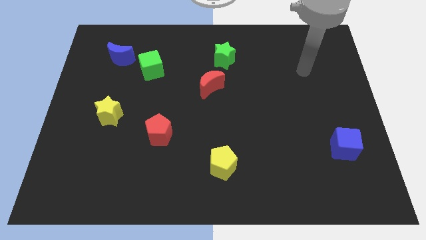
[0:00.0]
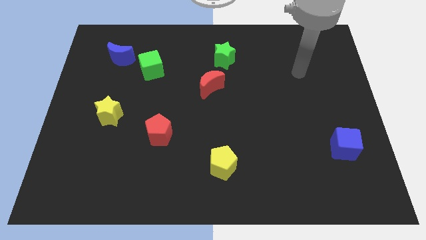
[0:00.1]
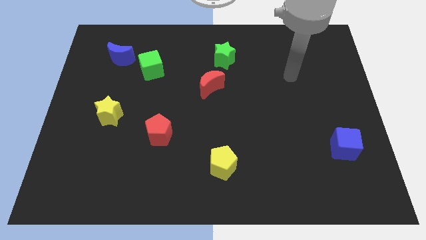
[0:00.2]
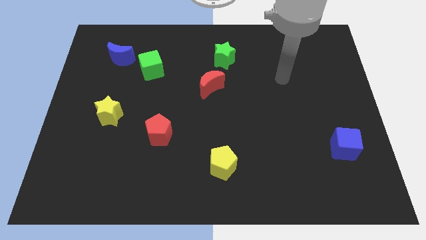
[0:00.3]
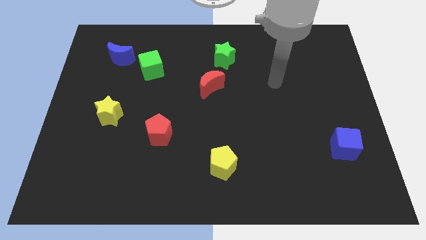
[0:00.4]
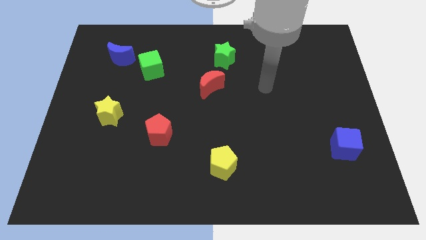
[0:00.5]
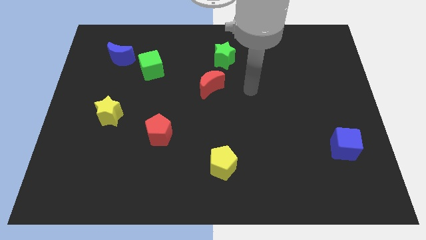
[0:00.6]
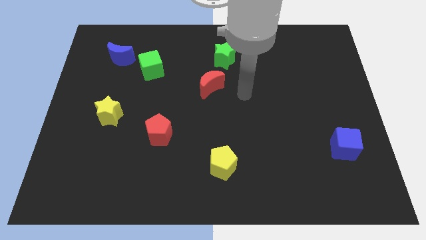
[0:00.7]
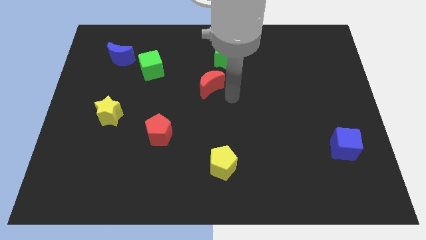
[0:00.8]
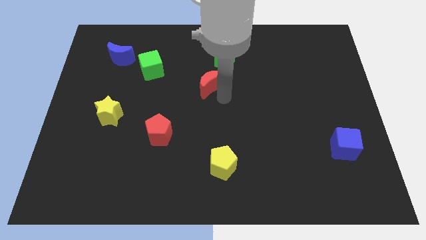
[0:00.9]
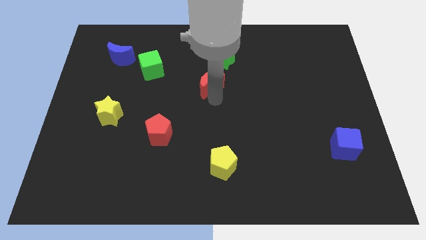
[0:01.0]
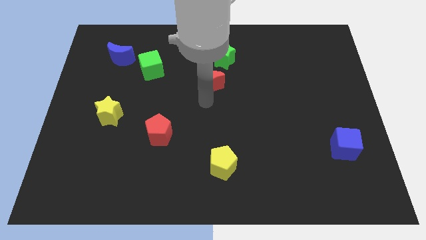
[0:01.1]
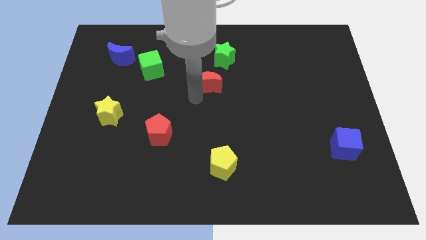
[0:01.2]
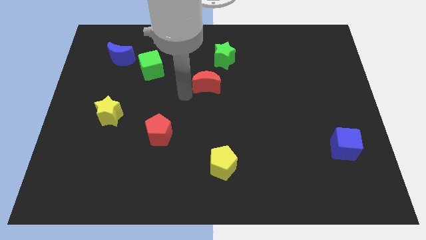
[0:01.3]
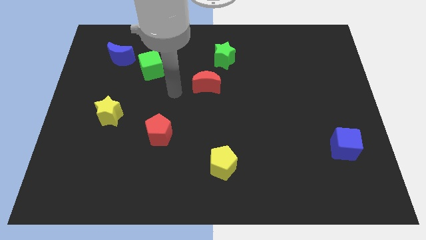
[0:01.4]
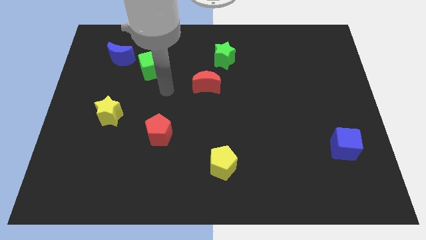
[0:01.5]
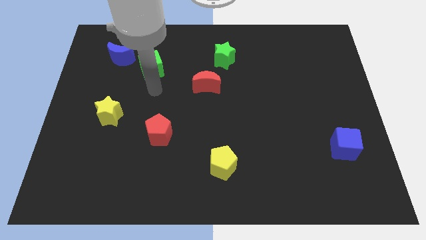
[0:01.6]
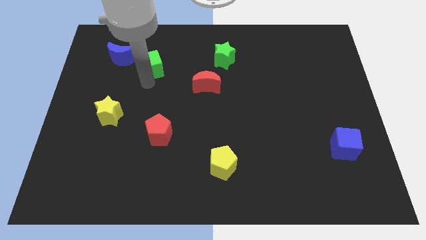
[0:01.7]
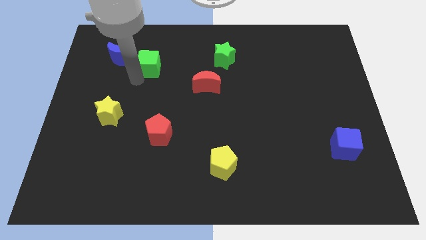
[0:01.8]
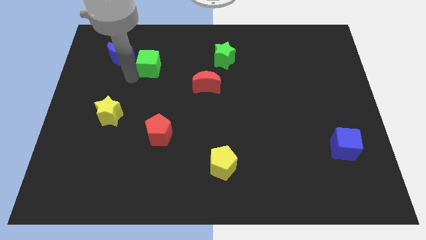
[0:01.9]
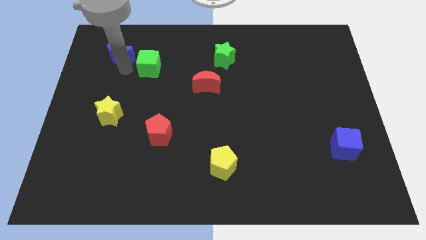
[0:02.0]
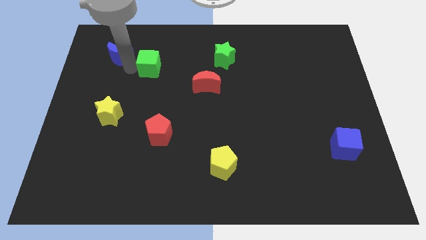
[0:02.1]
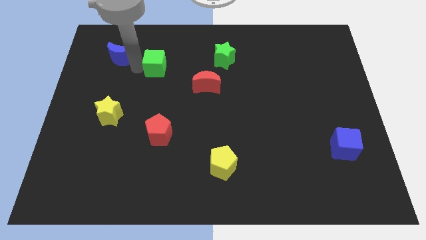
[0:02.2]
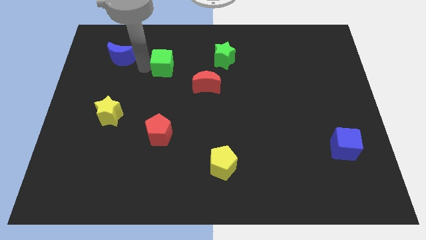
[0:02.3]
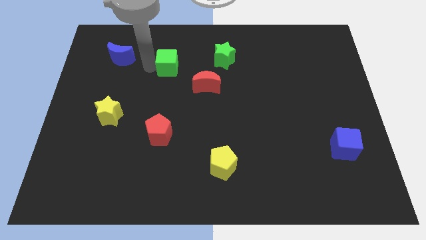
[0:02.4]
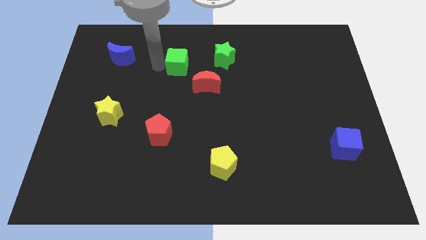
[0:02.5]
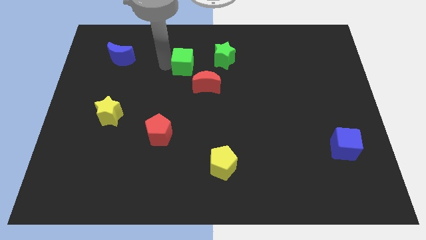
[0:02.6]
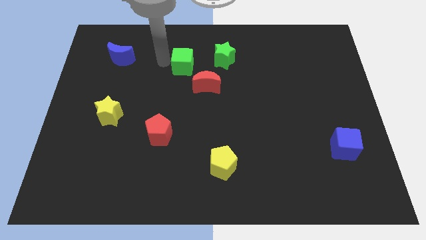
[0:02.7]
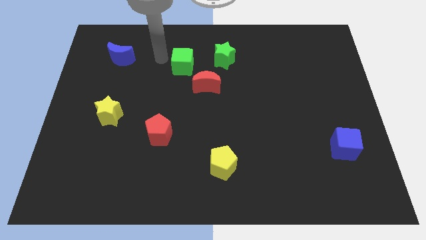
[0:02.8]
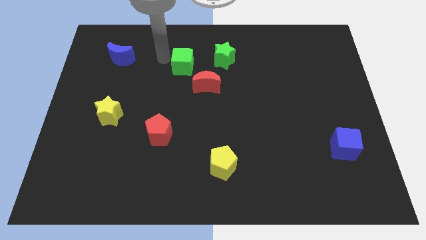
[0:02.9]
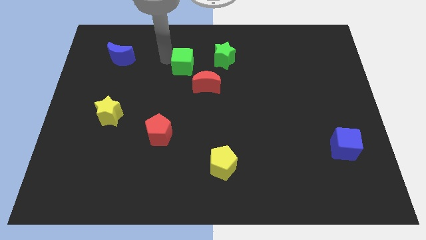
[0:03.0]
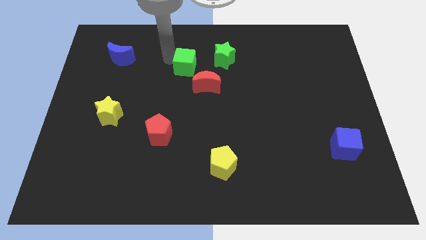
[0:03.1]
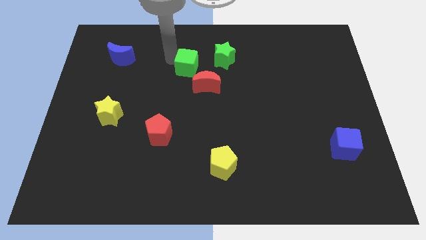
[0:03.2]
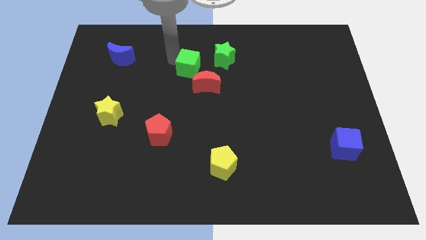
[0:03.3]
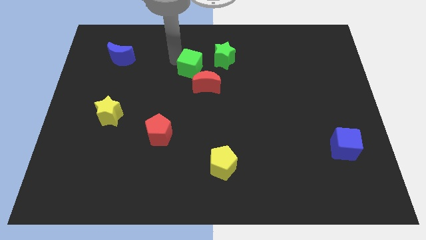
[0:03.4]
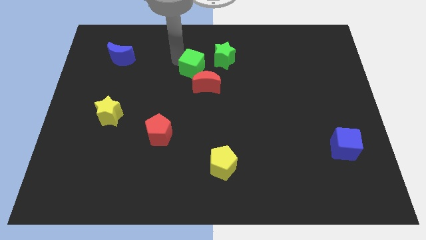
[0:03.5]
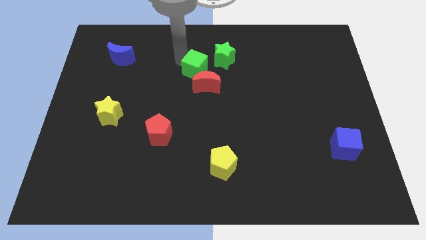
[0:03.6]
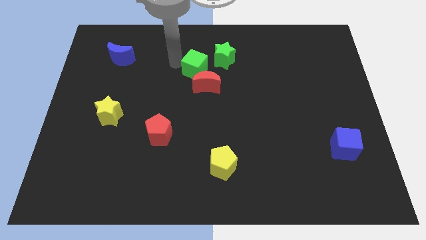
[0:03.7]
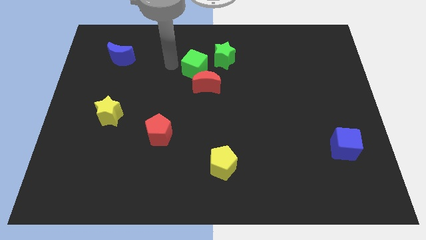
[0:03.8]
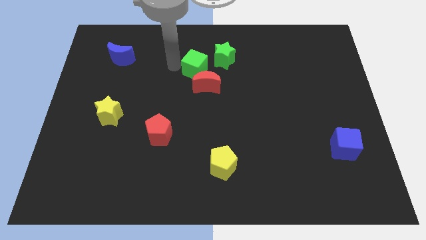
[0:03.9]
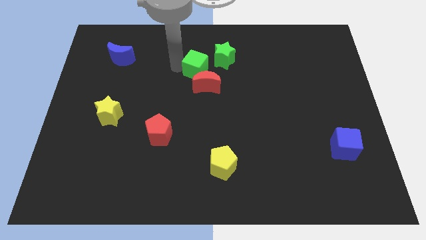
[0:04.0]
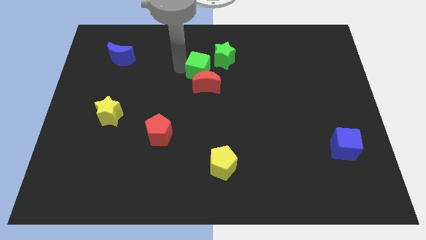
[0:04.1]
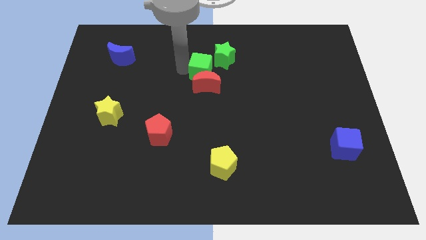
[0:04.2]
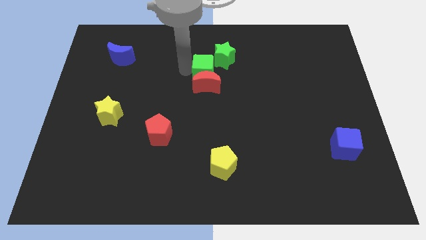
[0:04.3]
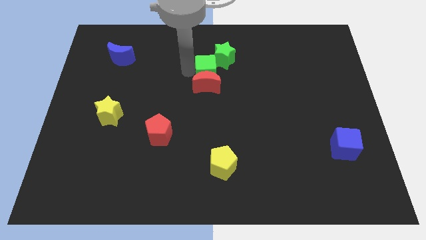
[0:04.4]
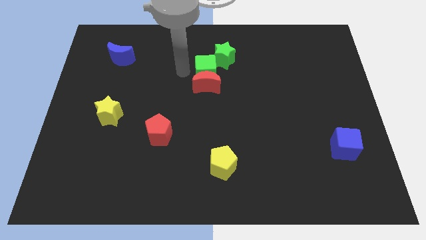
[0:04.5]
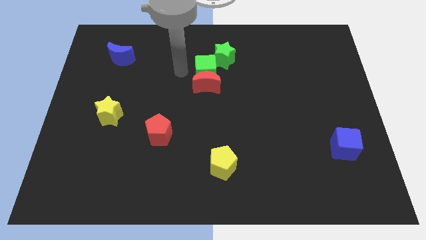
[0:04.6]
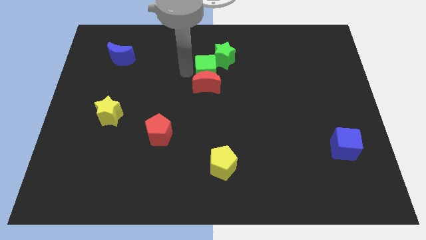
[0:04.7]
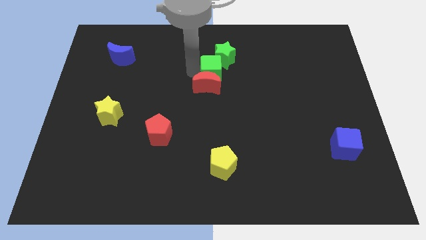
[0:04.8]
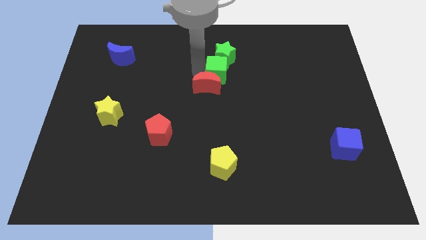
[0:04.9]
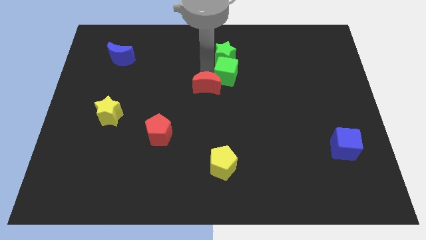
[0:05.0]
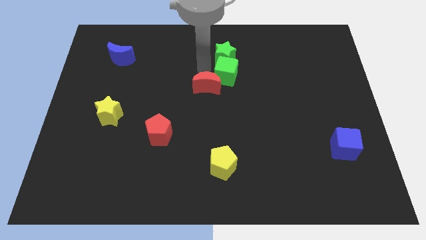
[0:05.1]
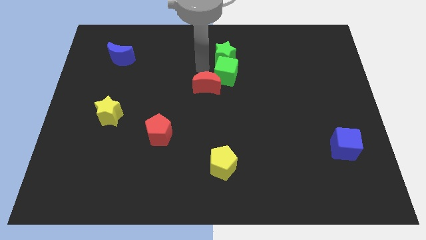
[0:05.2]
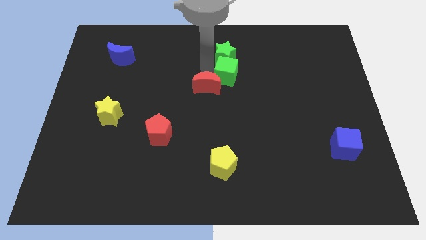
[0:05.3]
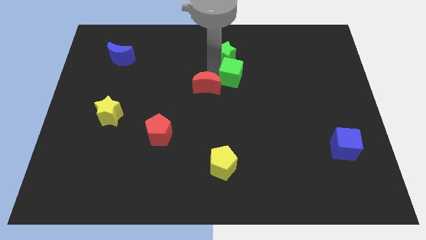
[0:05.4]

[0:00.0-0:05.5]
move the green cube right

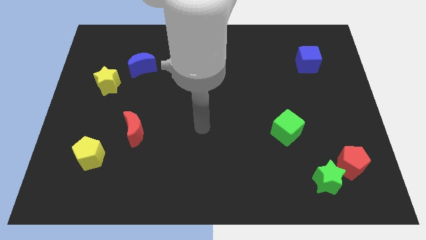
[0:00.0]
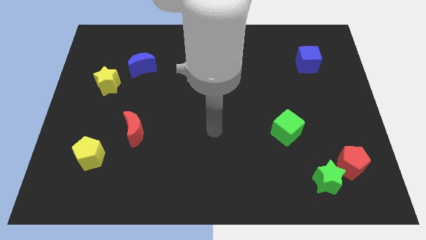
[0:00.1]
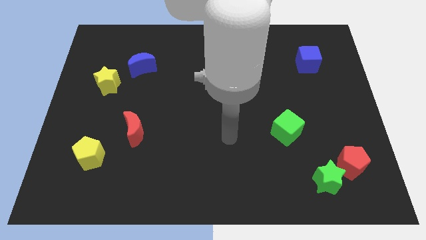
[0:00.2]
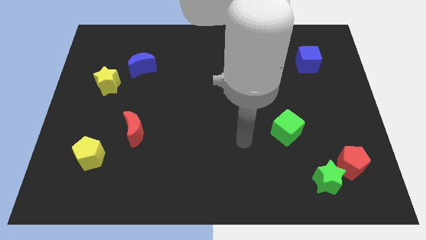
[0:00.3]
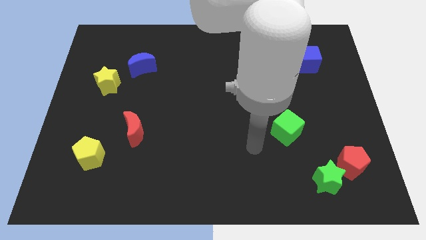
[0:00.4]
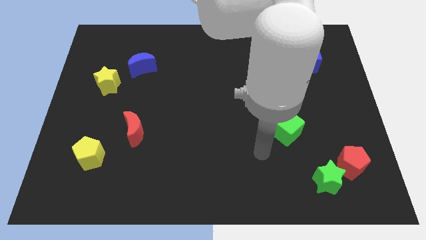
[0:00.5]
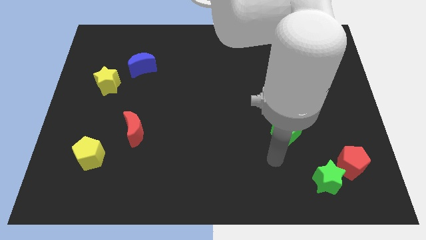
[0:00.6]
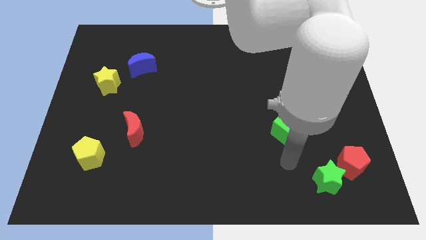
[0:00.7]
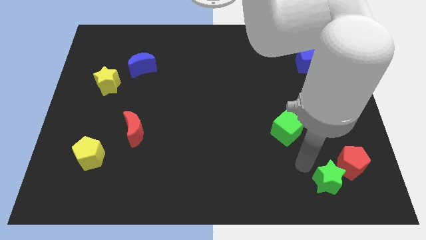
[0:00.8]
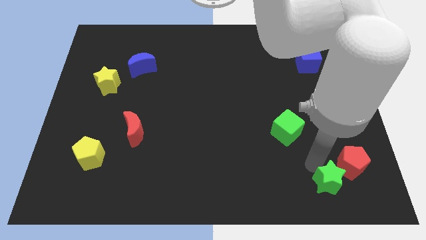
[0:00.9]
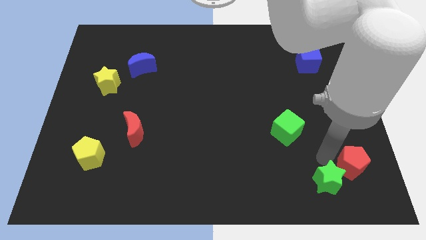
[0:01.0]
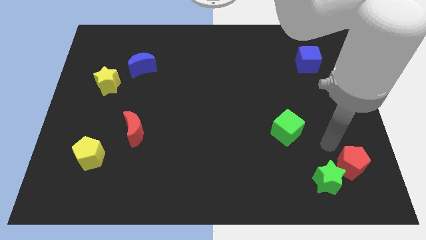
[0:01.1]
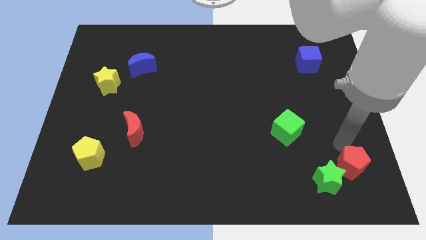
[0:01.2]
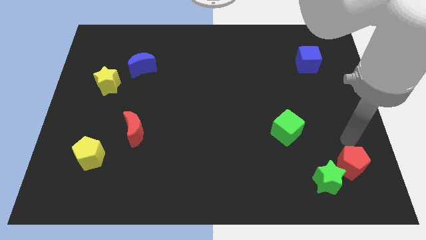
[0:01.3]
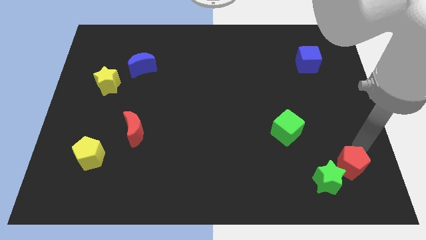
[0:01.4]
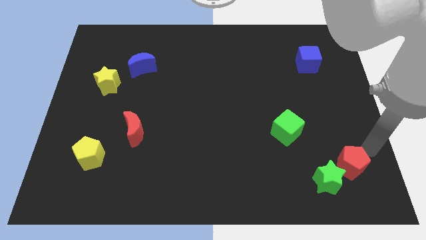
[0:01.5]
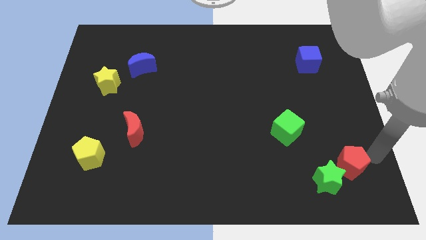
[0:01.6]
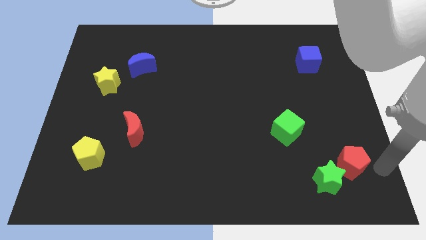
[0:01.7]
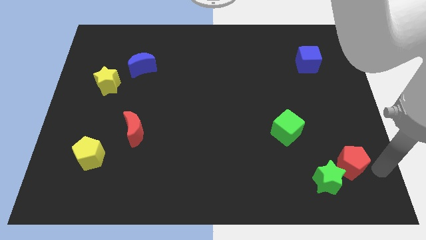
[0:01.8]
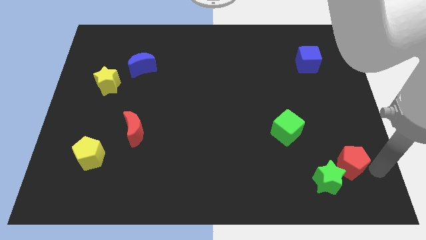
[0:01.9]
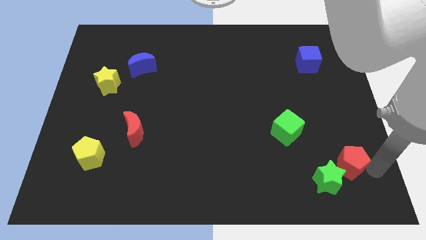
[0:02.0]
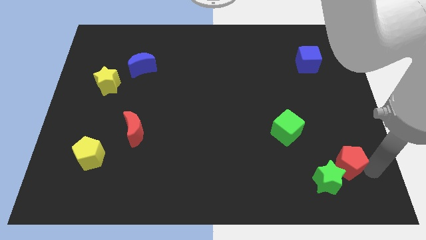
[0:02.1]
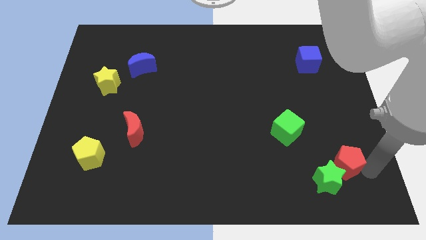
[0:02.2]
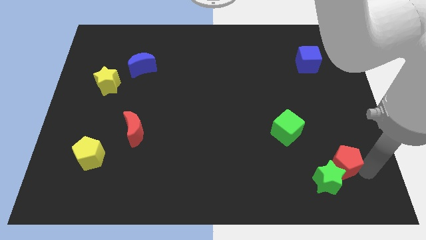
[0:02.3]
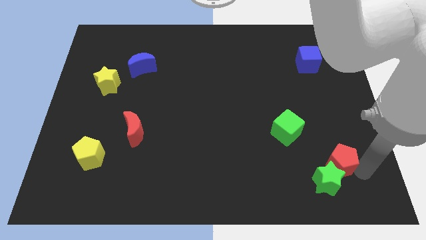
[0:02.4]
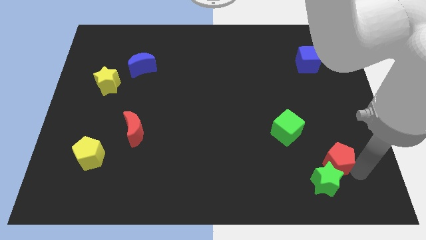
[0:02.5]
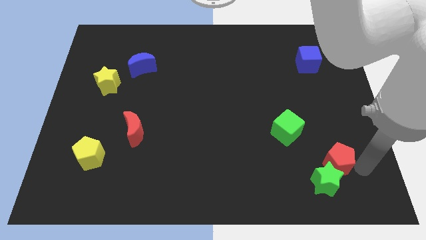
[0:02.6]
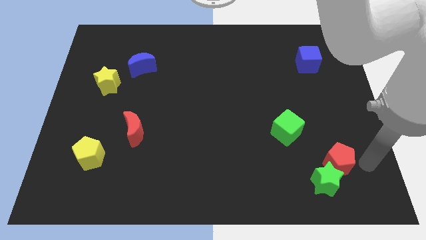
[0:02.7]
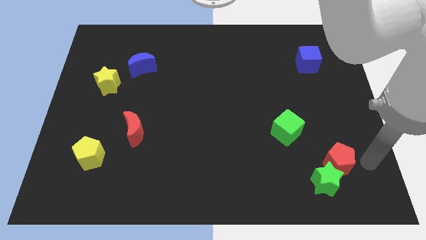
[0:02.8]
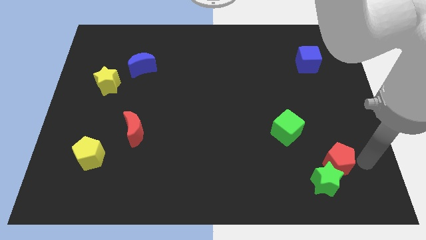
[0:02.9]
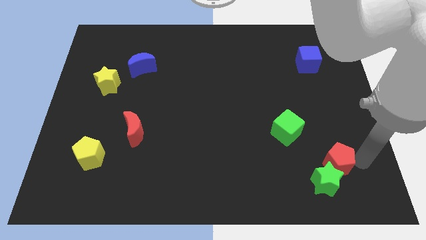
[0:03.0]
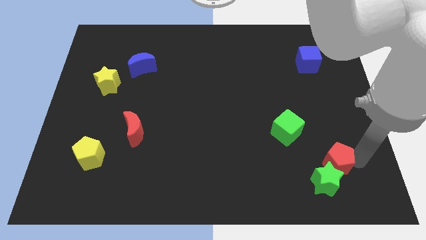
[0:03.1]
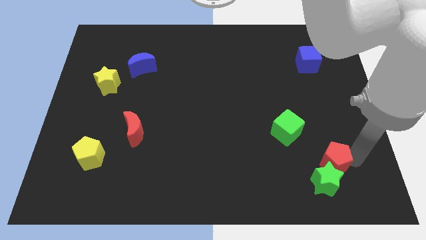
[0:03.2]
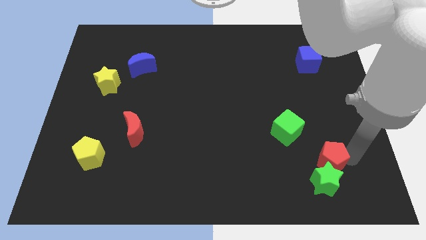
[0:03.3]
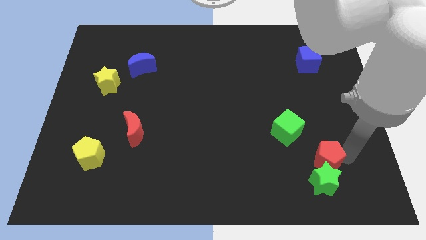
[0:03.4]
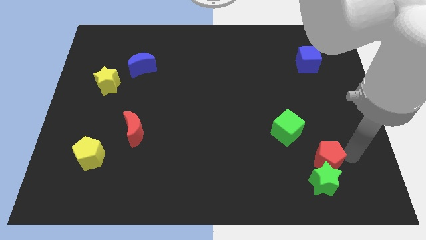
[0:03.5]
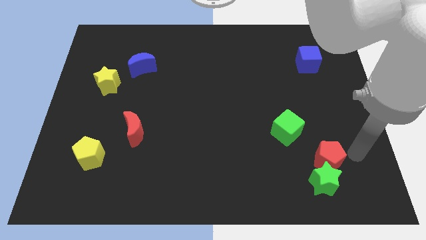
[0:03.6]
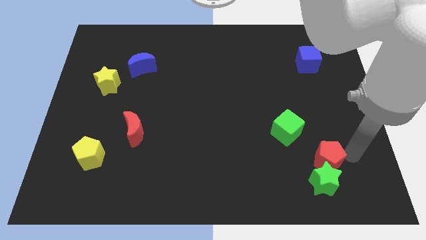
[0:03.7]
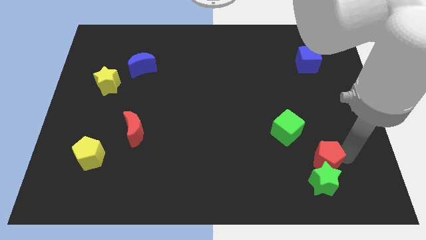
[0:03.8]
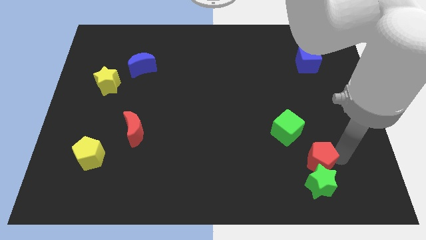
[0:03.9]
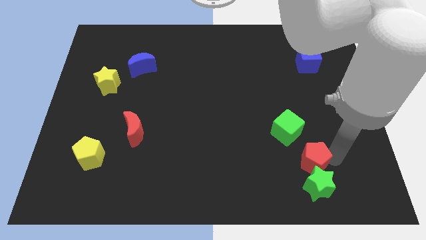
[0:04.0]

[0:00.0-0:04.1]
slide the red pentagon somewhat to the left
